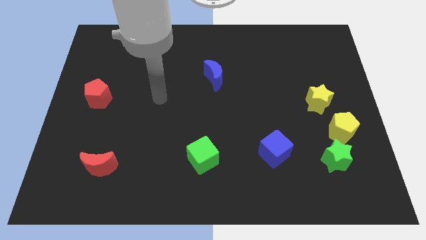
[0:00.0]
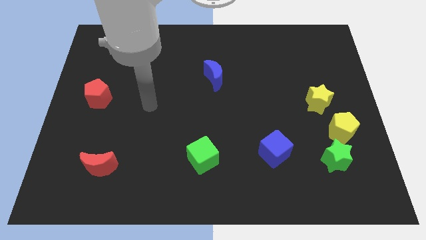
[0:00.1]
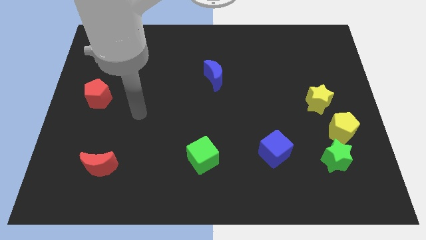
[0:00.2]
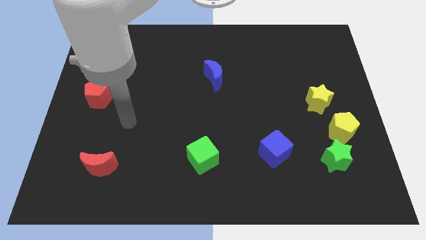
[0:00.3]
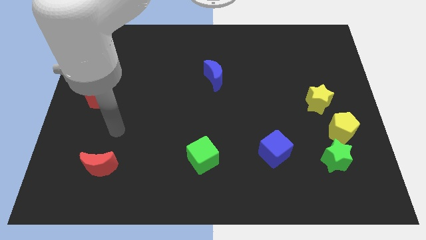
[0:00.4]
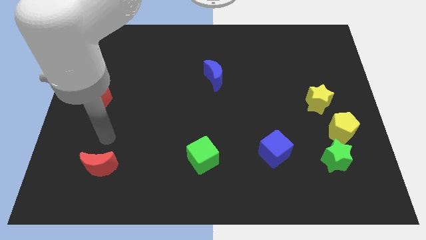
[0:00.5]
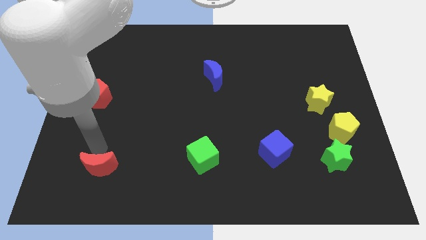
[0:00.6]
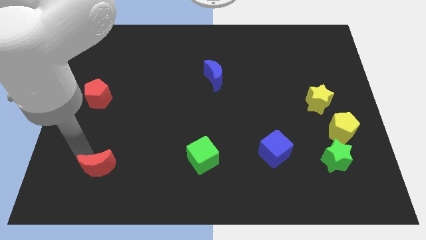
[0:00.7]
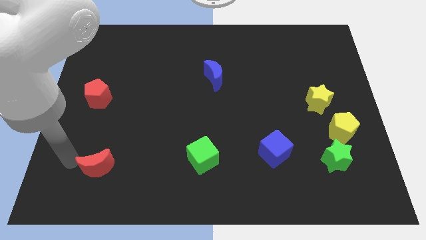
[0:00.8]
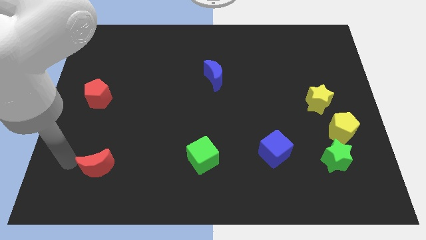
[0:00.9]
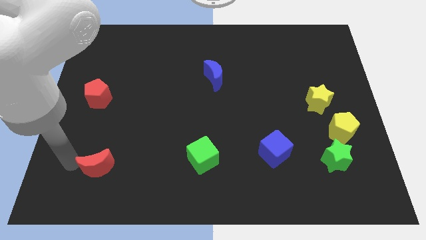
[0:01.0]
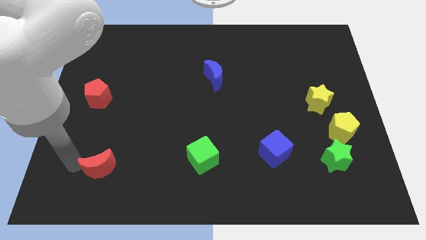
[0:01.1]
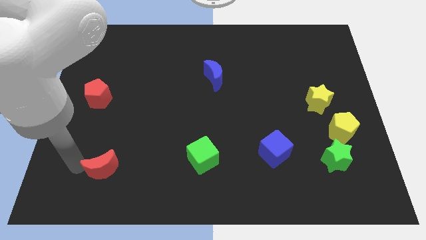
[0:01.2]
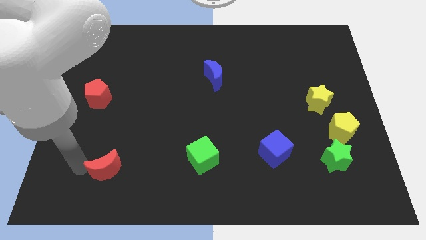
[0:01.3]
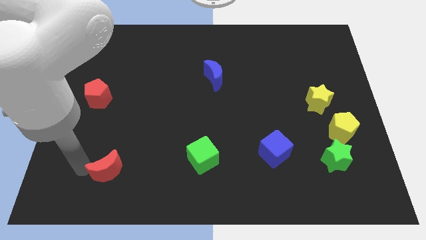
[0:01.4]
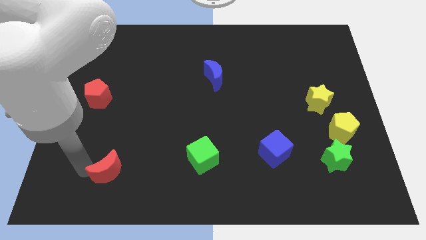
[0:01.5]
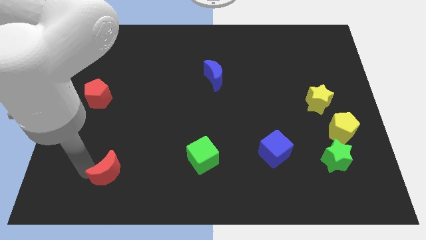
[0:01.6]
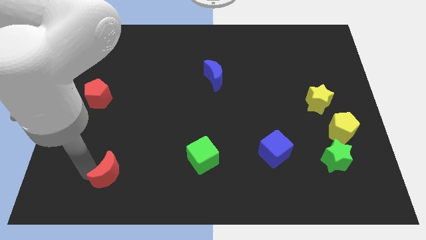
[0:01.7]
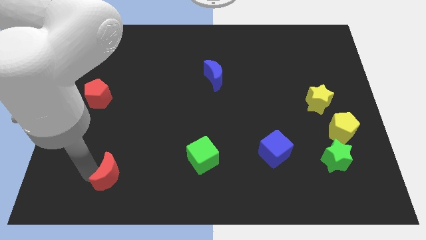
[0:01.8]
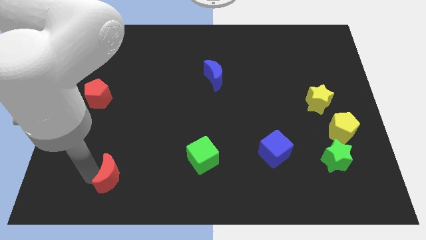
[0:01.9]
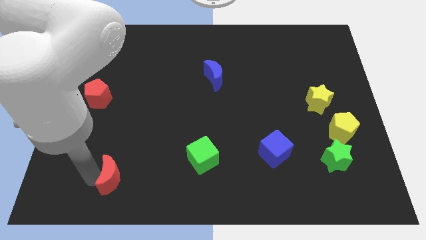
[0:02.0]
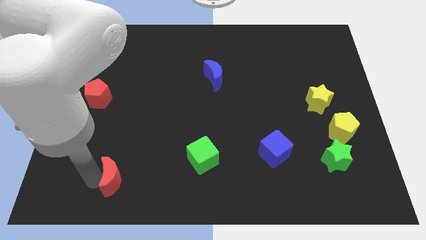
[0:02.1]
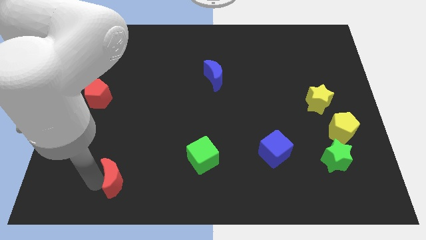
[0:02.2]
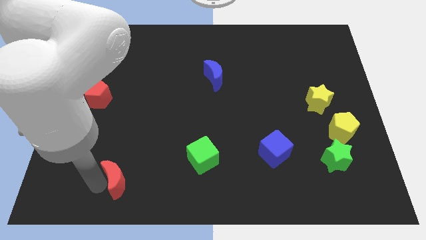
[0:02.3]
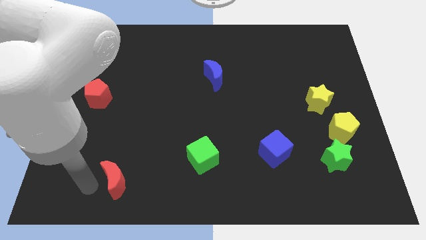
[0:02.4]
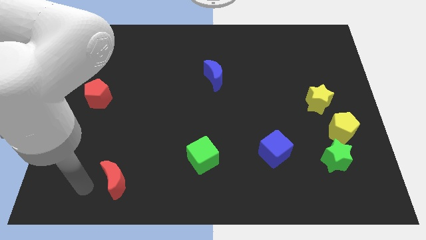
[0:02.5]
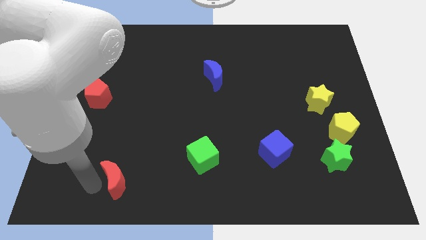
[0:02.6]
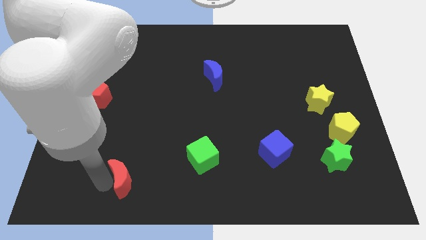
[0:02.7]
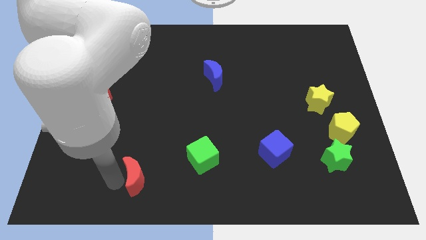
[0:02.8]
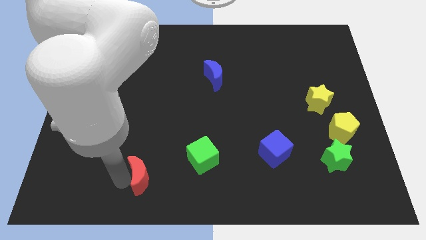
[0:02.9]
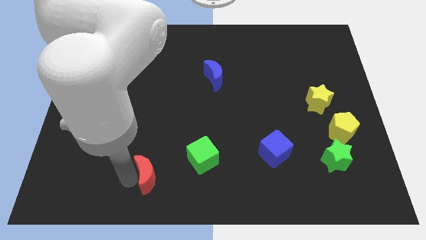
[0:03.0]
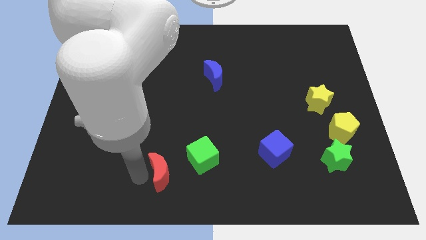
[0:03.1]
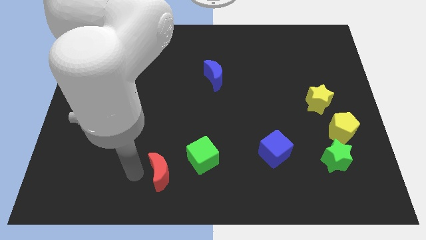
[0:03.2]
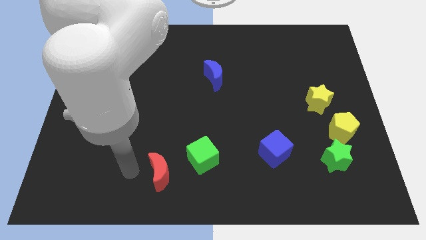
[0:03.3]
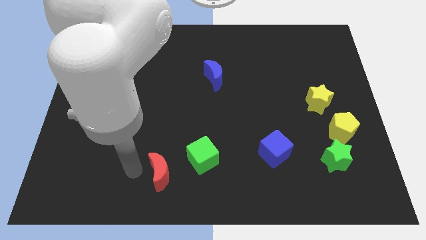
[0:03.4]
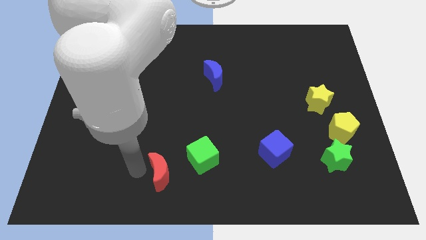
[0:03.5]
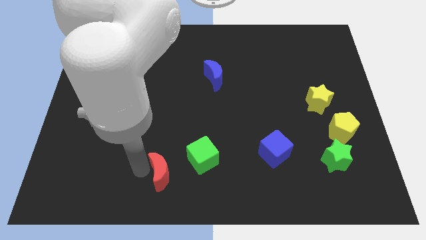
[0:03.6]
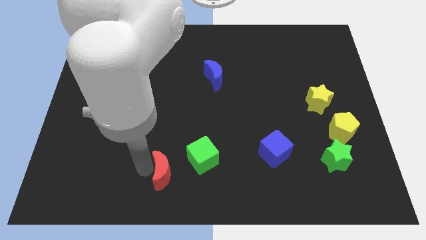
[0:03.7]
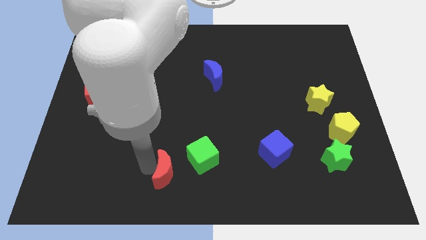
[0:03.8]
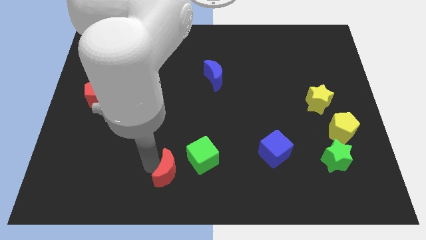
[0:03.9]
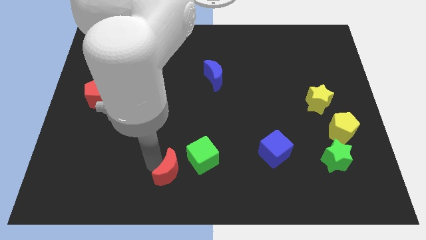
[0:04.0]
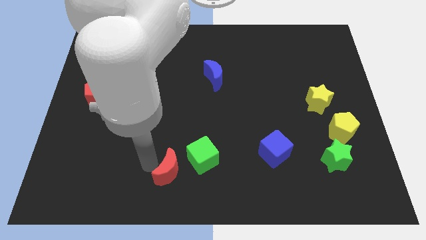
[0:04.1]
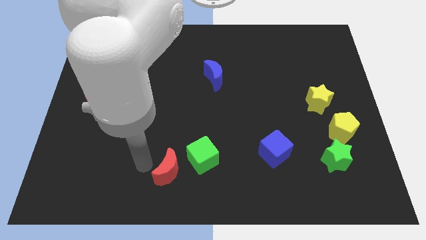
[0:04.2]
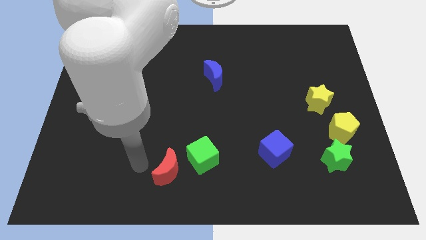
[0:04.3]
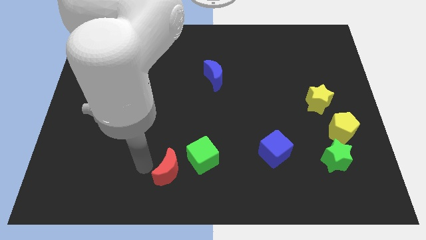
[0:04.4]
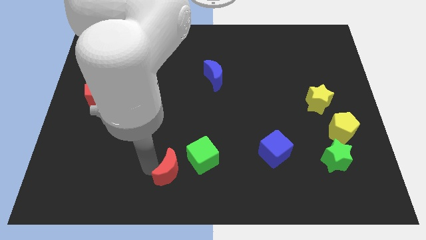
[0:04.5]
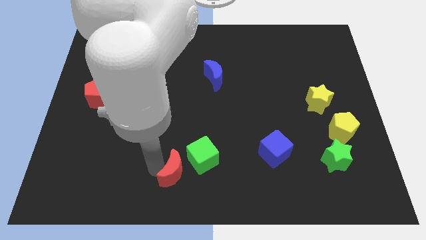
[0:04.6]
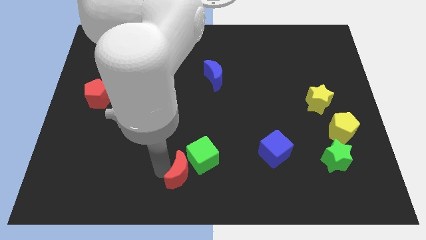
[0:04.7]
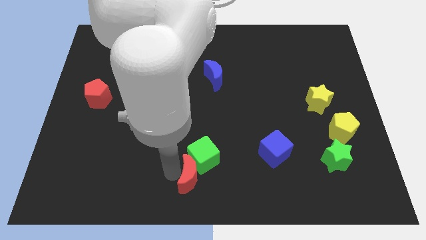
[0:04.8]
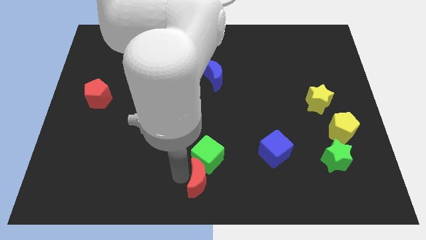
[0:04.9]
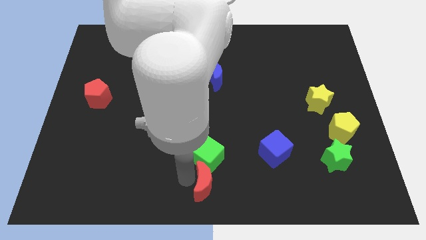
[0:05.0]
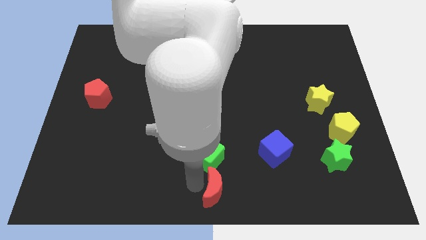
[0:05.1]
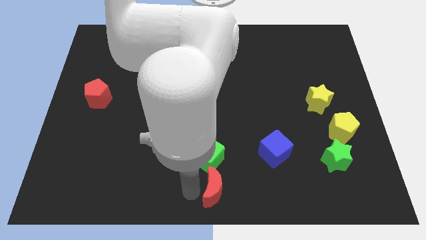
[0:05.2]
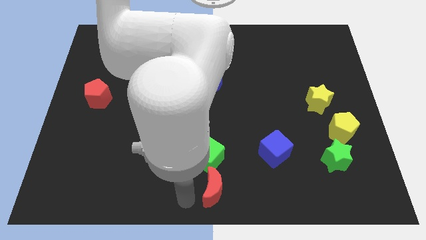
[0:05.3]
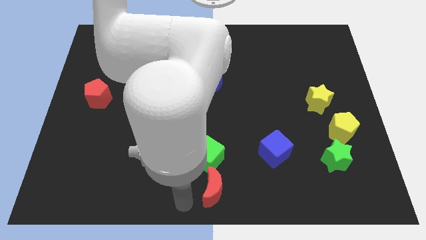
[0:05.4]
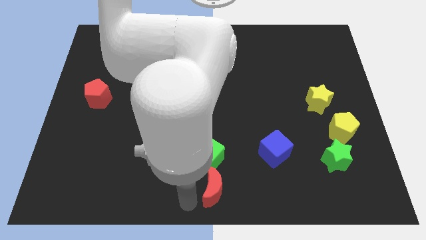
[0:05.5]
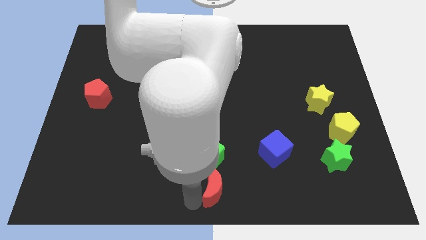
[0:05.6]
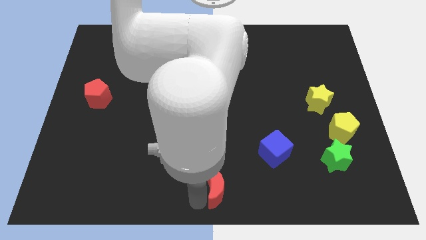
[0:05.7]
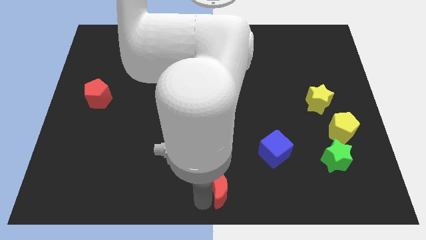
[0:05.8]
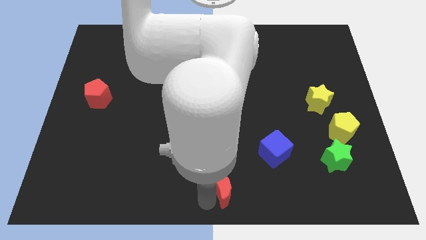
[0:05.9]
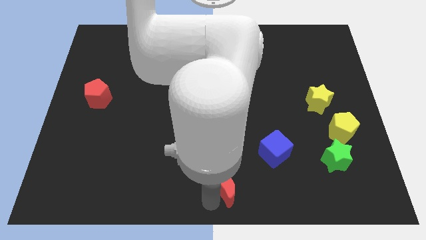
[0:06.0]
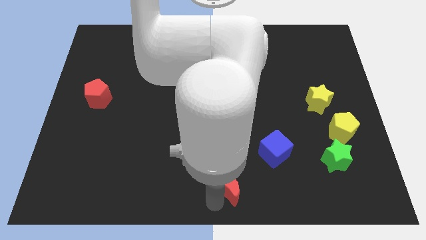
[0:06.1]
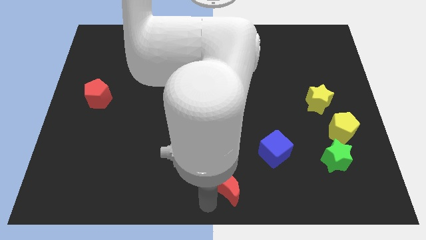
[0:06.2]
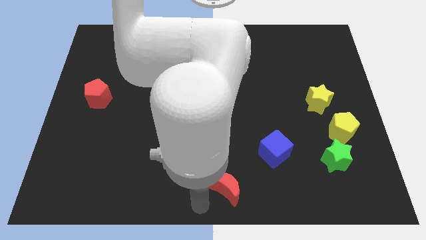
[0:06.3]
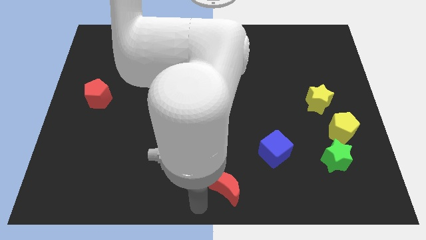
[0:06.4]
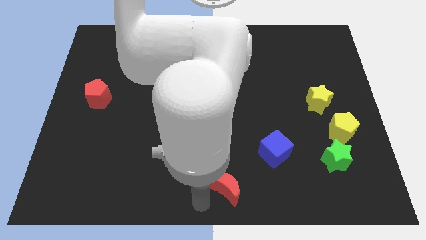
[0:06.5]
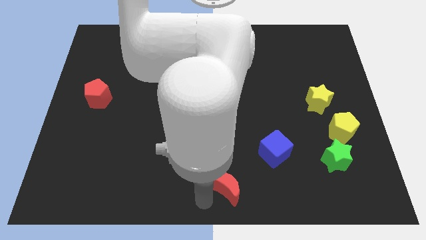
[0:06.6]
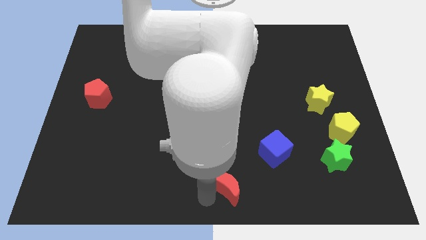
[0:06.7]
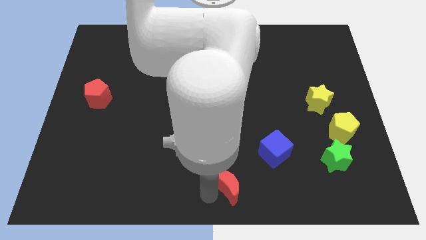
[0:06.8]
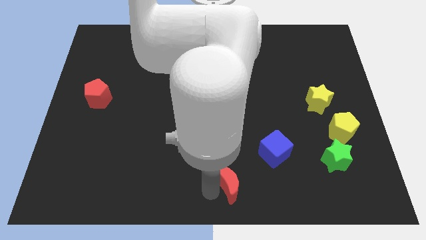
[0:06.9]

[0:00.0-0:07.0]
push the red moon diagonally down and to the left of the blue cube
